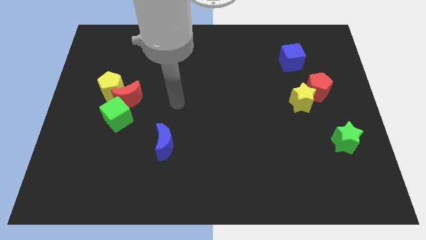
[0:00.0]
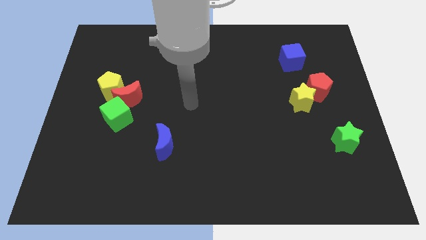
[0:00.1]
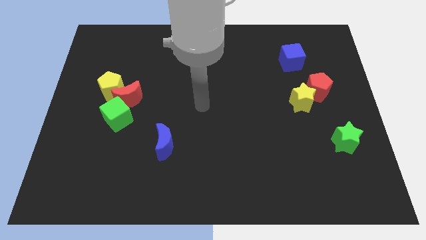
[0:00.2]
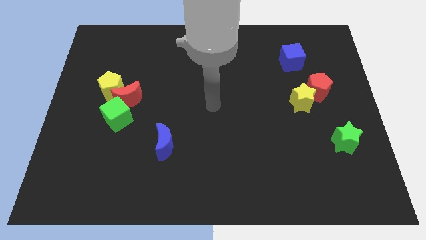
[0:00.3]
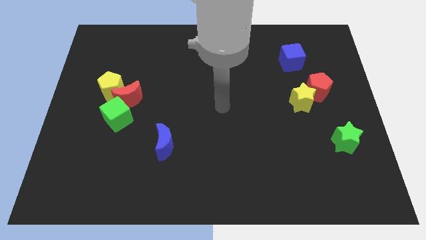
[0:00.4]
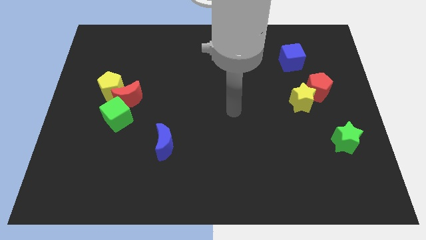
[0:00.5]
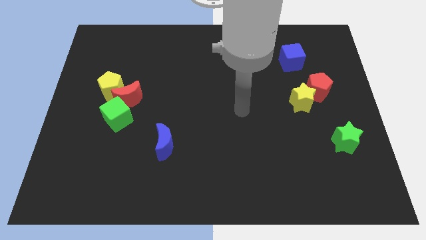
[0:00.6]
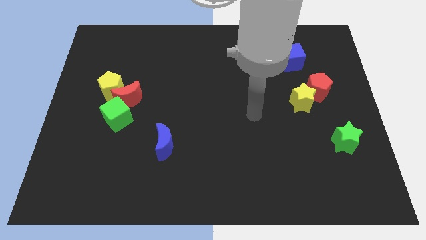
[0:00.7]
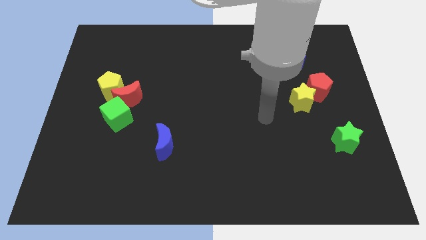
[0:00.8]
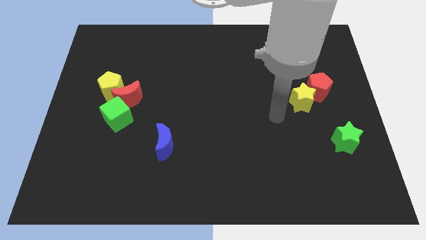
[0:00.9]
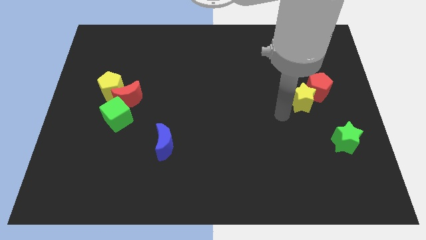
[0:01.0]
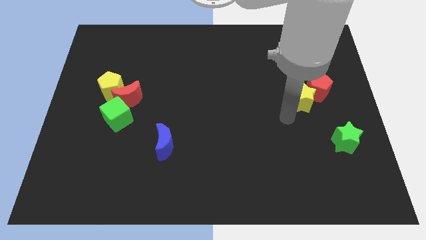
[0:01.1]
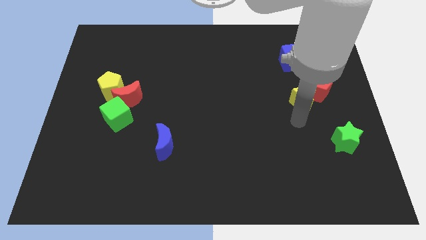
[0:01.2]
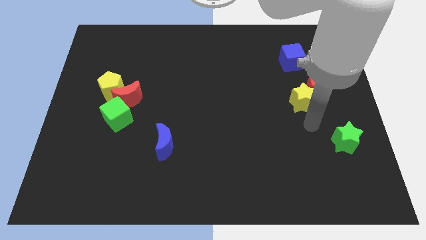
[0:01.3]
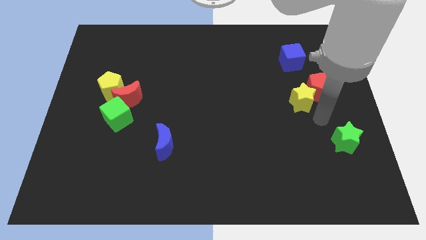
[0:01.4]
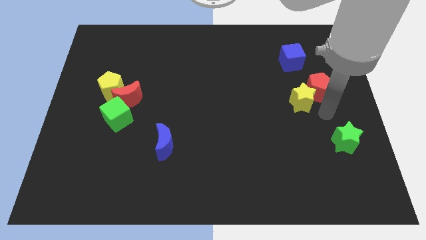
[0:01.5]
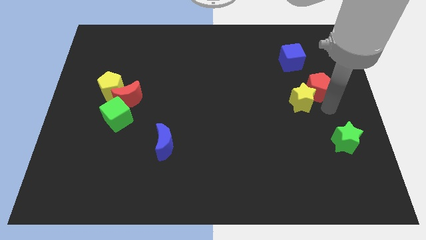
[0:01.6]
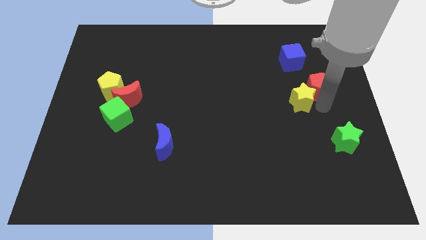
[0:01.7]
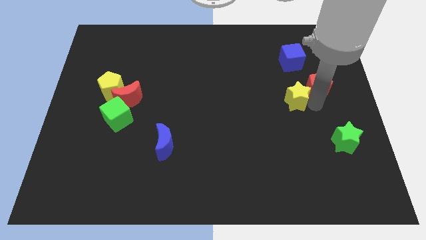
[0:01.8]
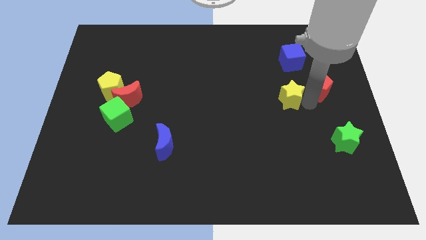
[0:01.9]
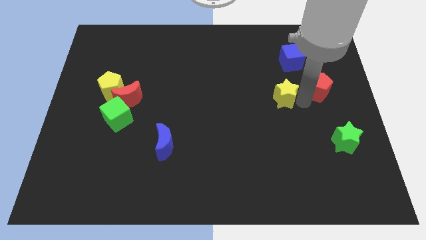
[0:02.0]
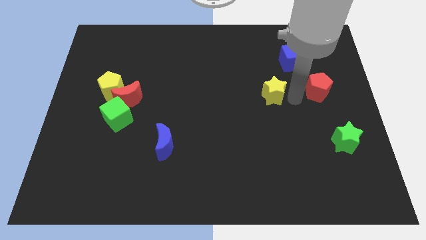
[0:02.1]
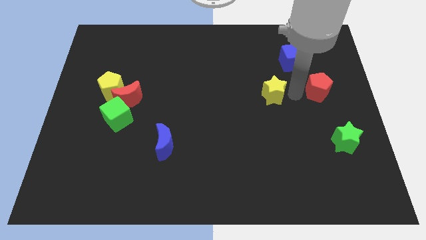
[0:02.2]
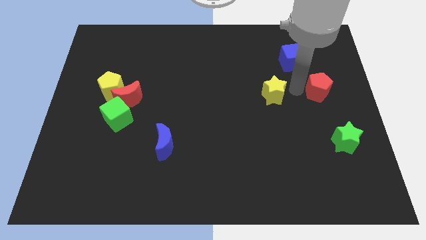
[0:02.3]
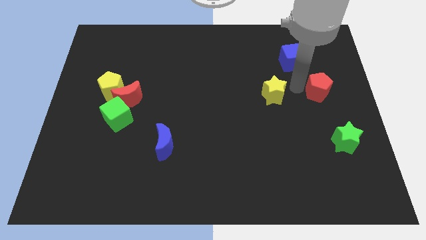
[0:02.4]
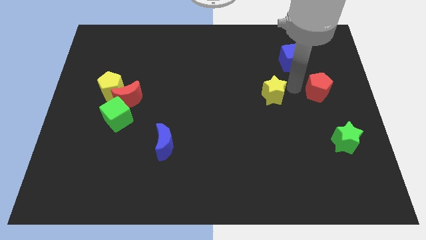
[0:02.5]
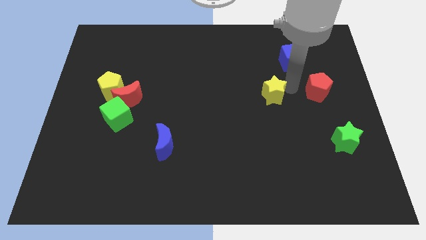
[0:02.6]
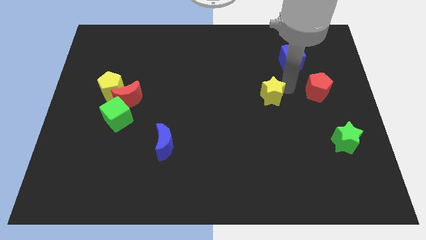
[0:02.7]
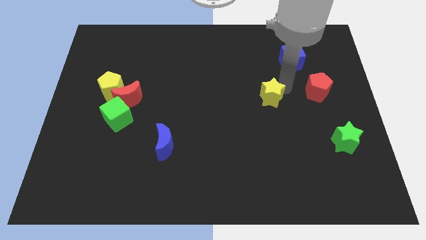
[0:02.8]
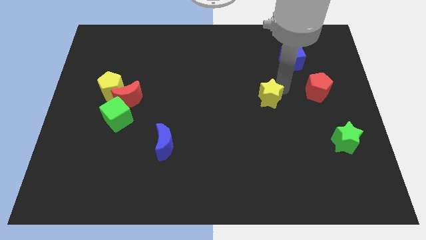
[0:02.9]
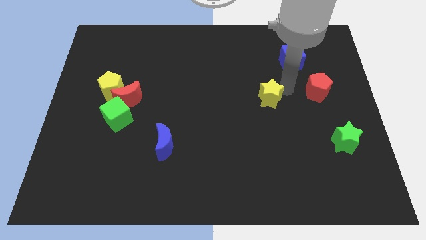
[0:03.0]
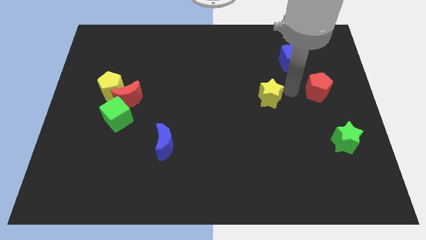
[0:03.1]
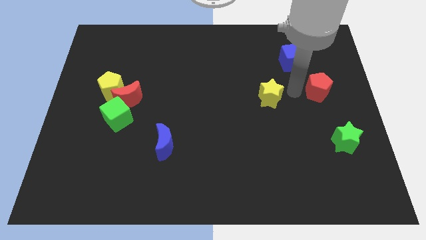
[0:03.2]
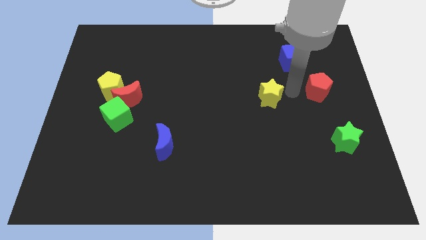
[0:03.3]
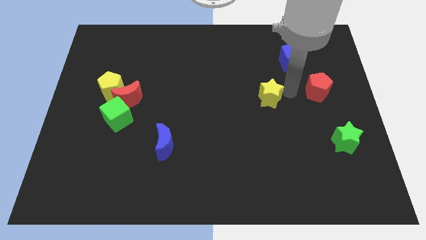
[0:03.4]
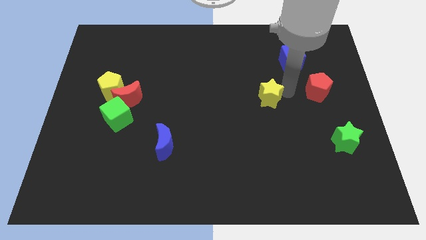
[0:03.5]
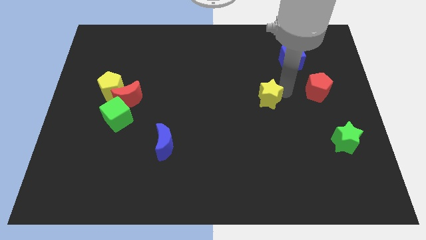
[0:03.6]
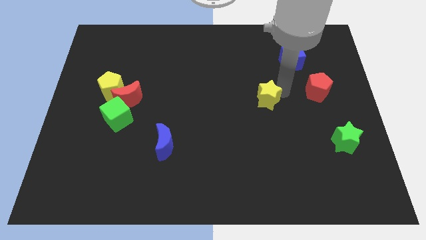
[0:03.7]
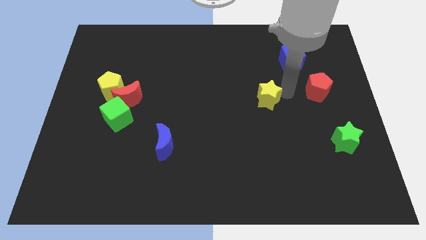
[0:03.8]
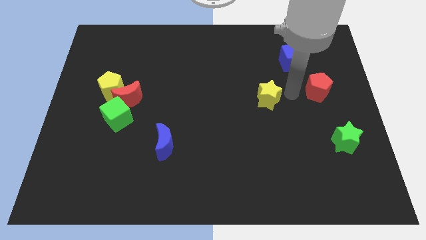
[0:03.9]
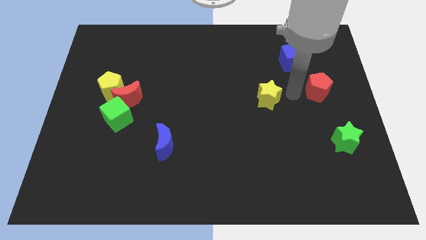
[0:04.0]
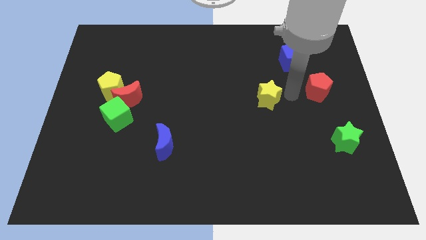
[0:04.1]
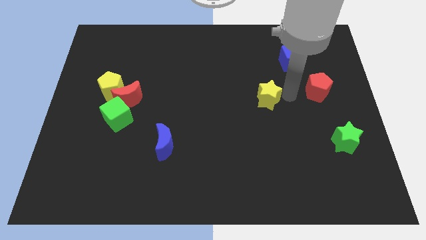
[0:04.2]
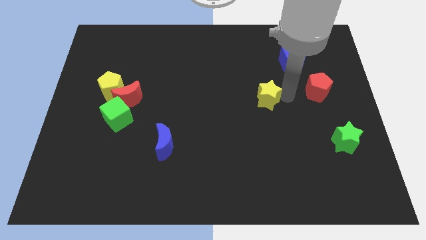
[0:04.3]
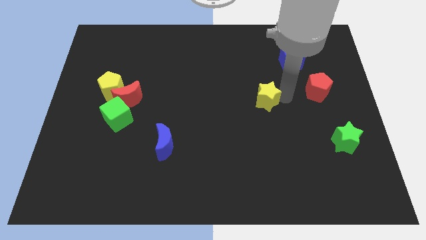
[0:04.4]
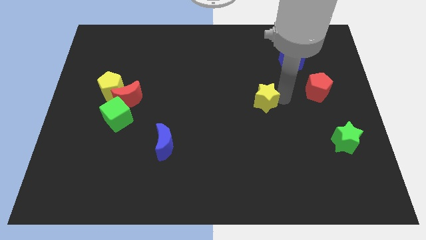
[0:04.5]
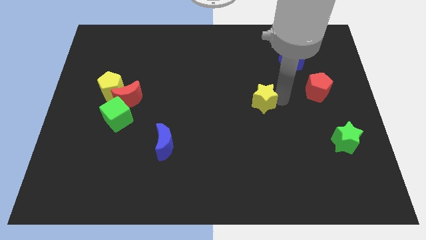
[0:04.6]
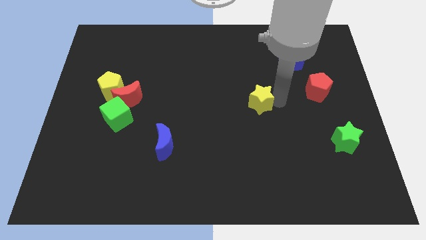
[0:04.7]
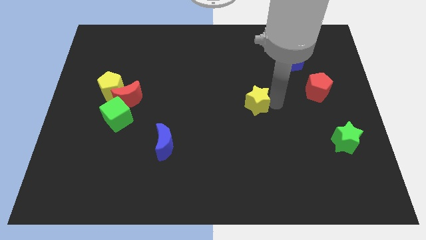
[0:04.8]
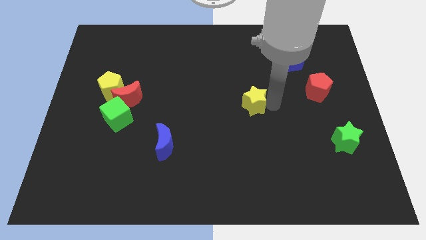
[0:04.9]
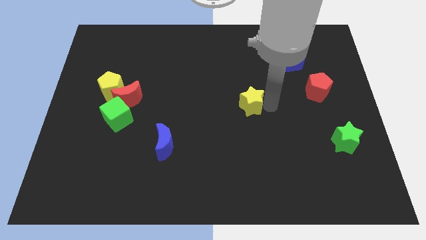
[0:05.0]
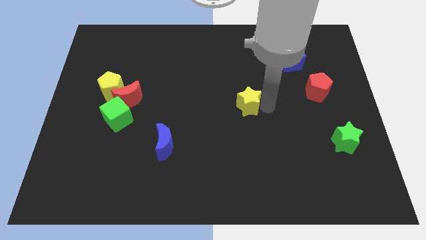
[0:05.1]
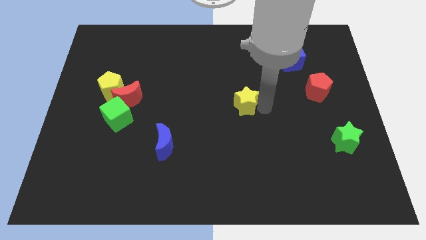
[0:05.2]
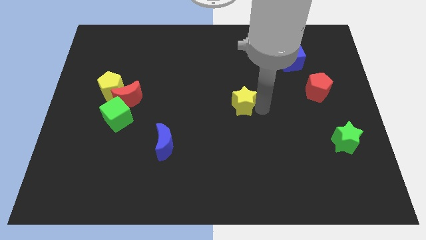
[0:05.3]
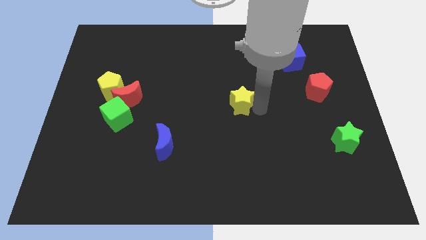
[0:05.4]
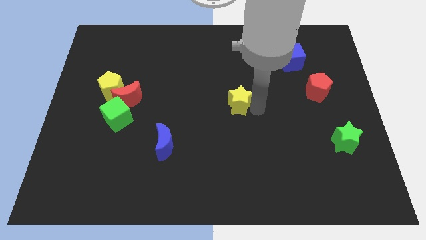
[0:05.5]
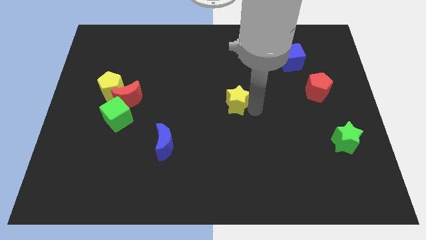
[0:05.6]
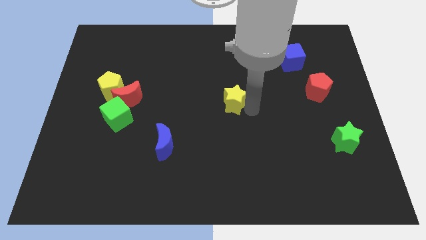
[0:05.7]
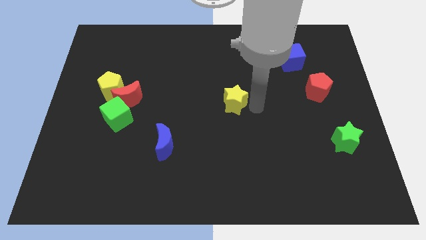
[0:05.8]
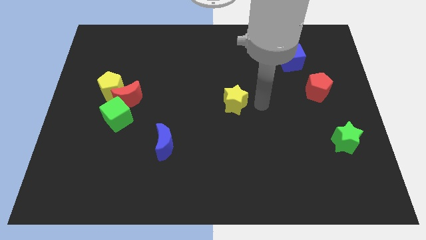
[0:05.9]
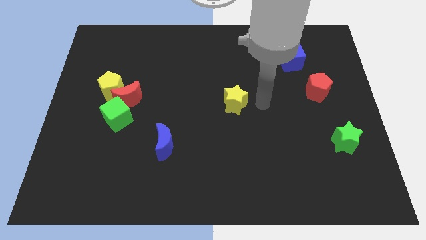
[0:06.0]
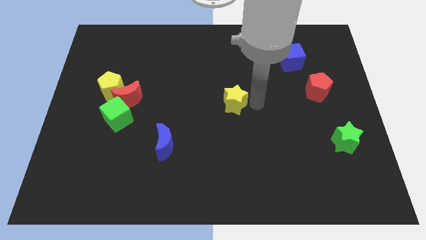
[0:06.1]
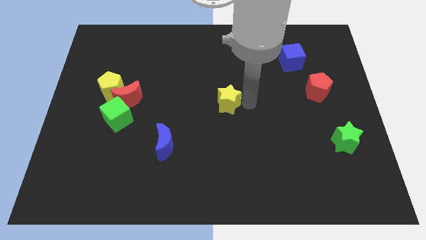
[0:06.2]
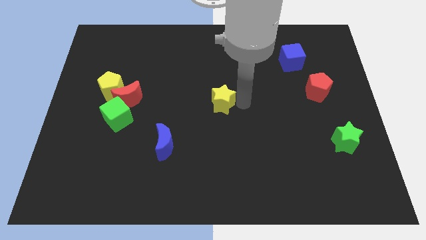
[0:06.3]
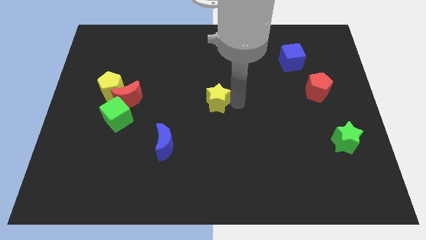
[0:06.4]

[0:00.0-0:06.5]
push the yellow star left

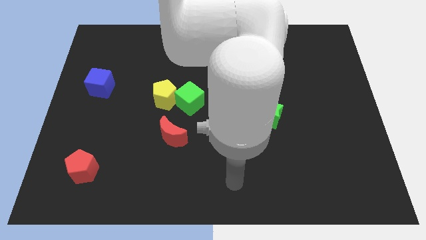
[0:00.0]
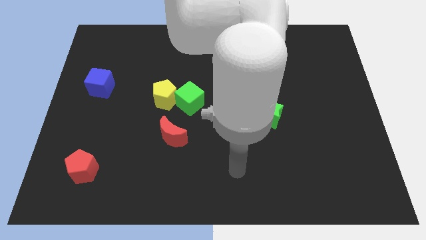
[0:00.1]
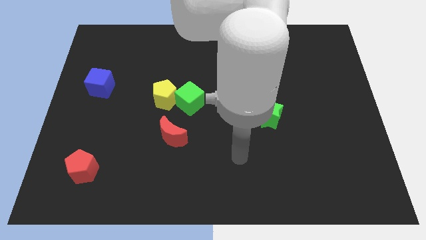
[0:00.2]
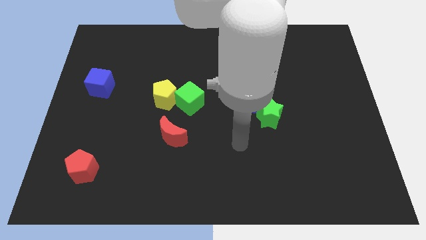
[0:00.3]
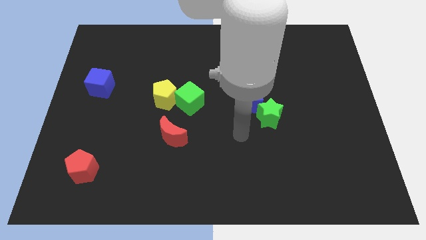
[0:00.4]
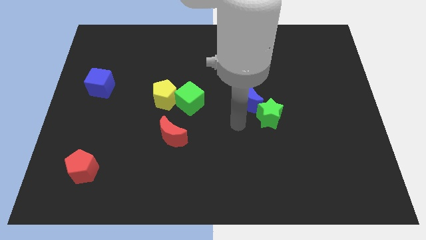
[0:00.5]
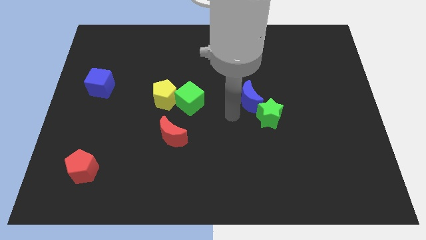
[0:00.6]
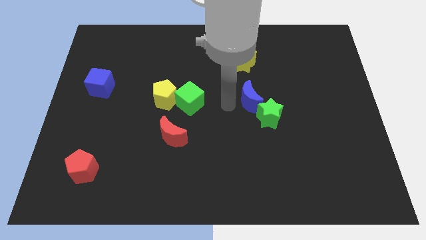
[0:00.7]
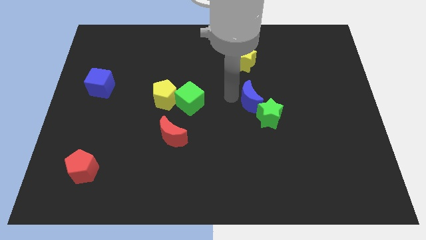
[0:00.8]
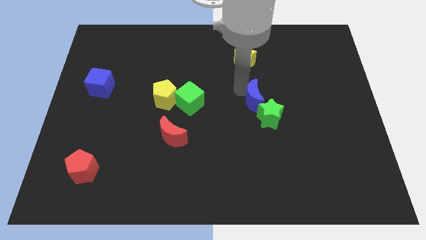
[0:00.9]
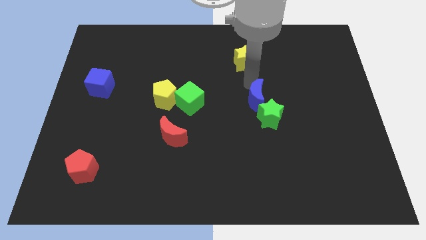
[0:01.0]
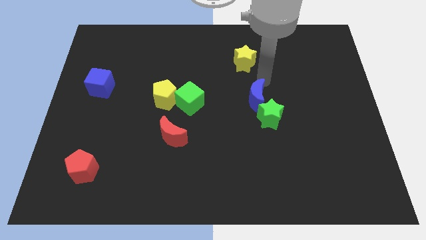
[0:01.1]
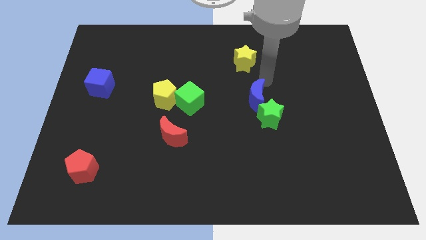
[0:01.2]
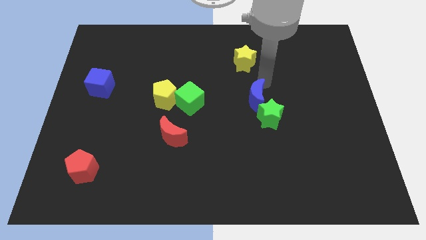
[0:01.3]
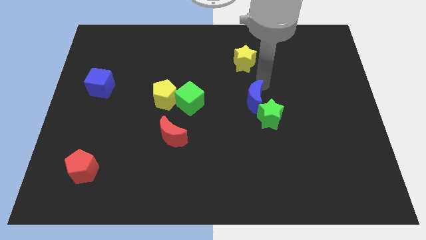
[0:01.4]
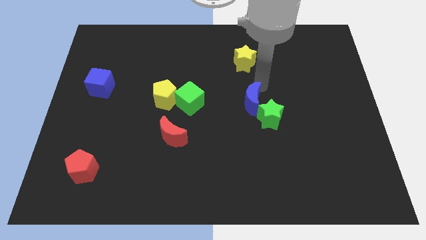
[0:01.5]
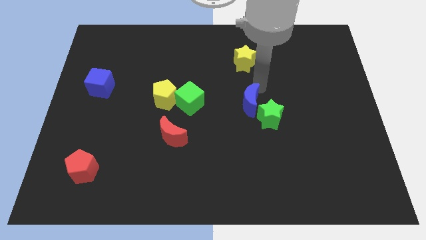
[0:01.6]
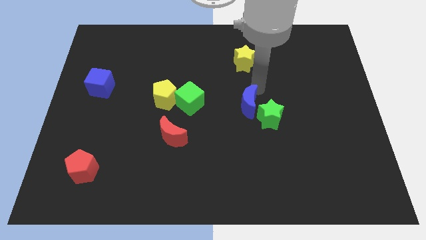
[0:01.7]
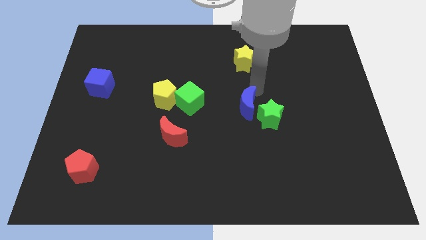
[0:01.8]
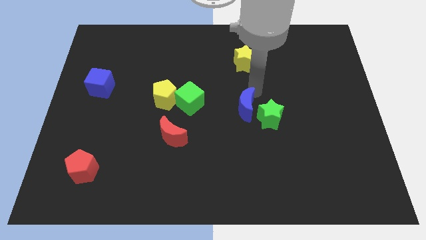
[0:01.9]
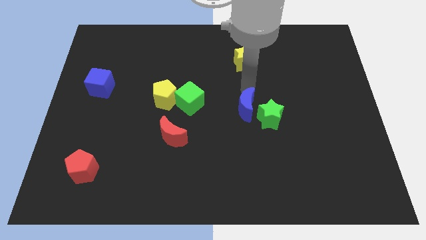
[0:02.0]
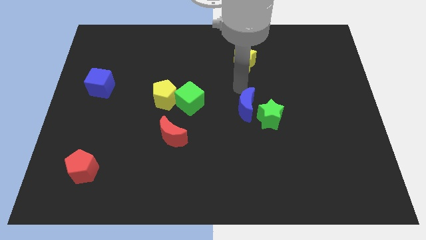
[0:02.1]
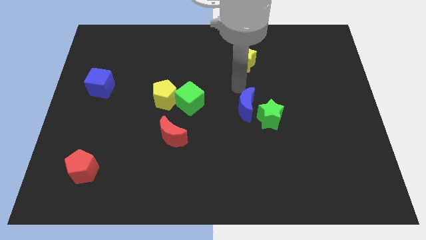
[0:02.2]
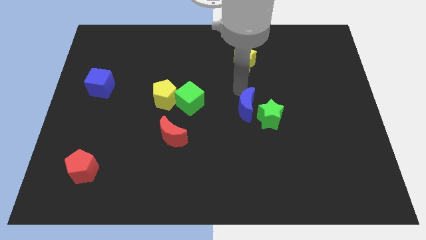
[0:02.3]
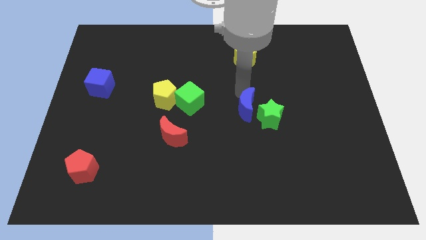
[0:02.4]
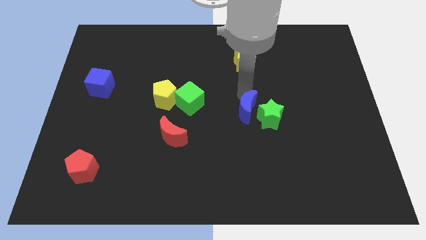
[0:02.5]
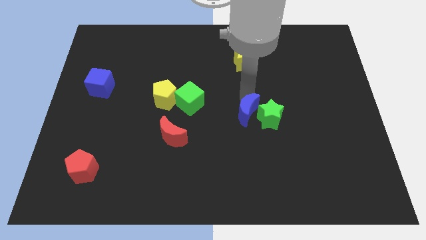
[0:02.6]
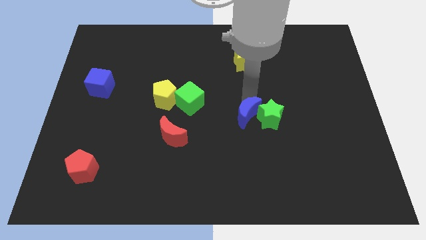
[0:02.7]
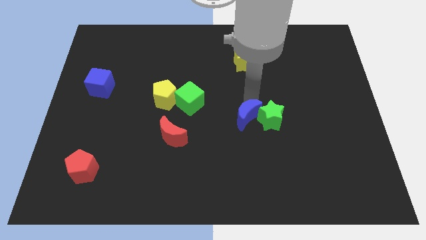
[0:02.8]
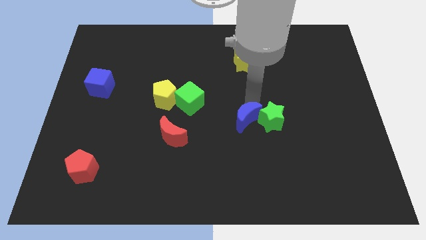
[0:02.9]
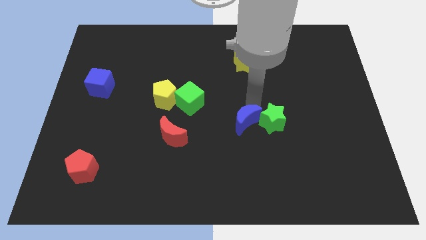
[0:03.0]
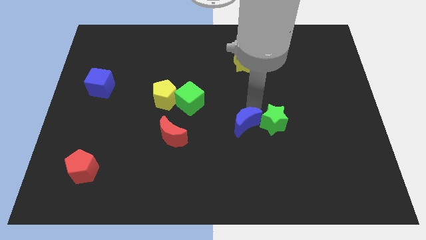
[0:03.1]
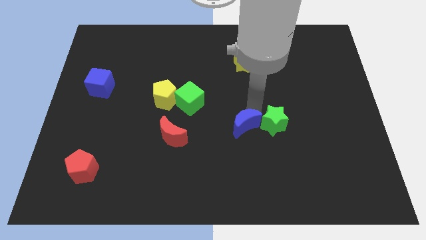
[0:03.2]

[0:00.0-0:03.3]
slide the blue moon down a little bit
